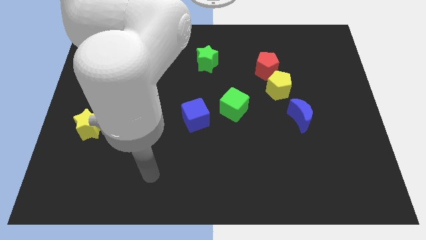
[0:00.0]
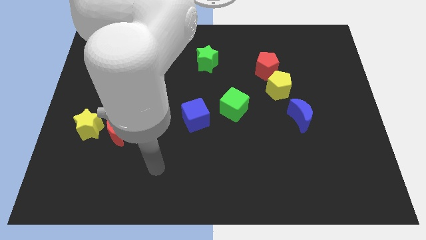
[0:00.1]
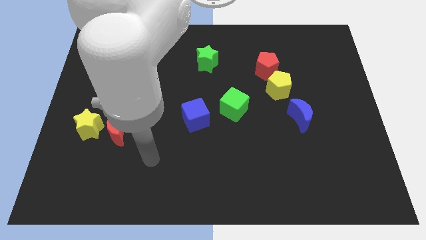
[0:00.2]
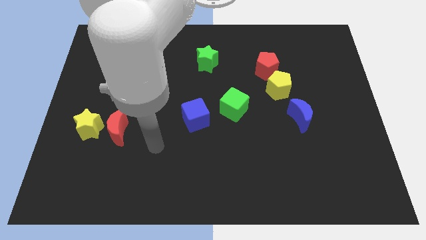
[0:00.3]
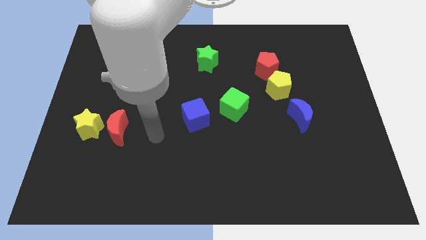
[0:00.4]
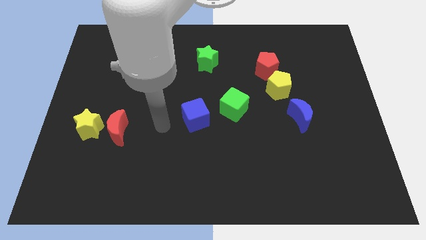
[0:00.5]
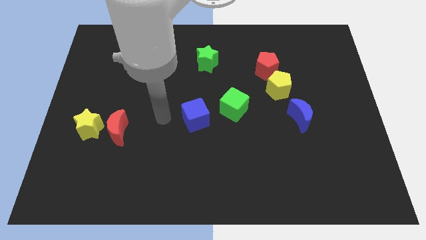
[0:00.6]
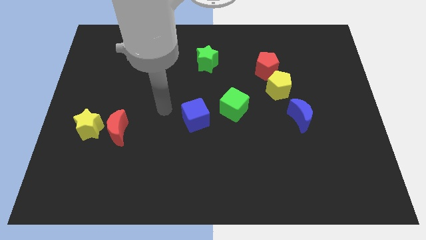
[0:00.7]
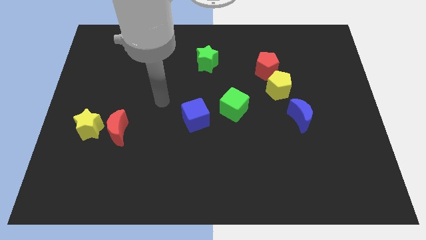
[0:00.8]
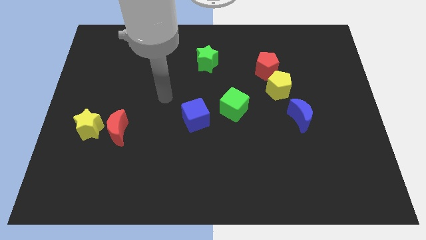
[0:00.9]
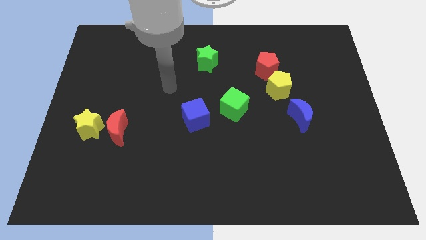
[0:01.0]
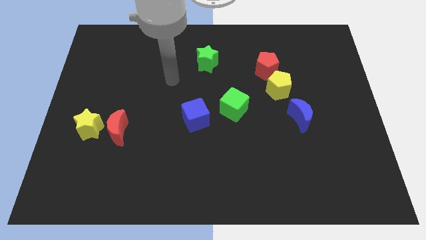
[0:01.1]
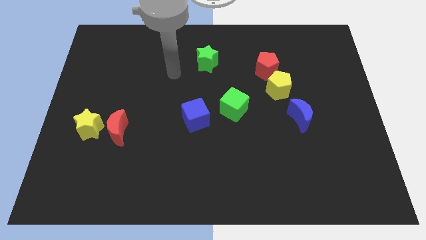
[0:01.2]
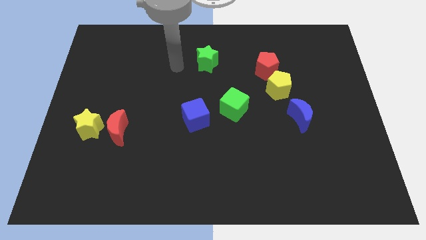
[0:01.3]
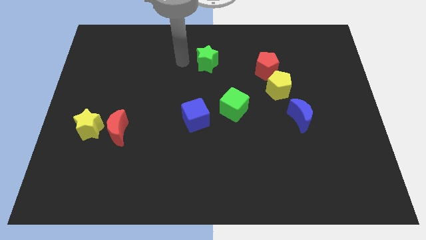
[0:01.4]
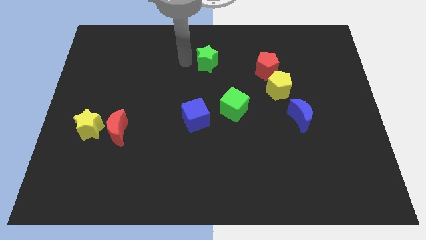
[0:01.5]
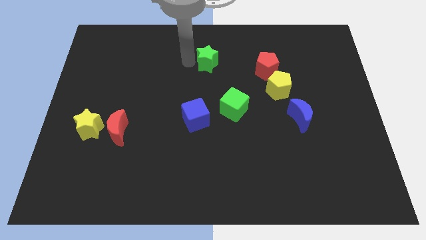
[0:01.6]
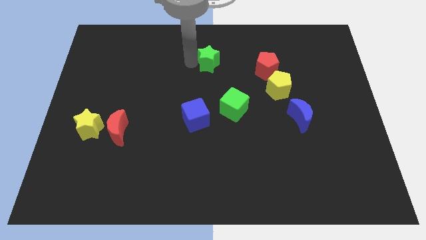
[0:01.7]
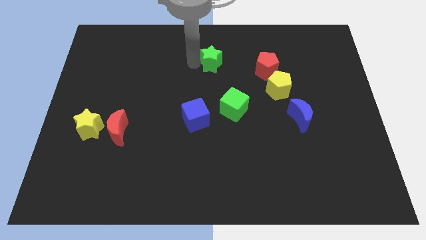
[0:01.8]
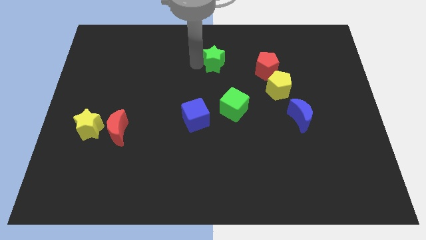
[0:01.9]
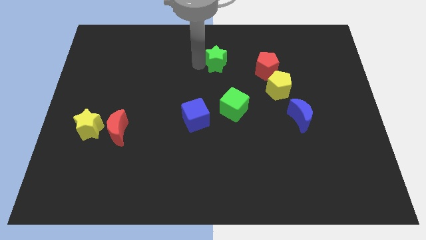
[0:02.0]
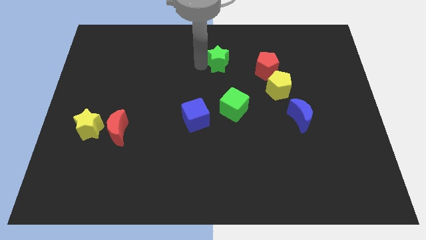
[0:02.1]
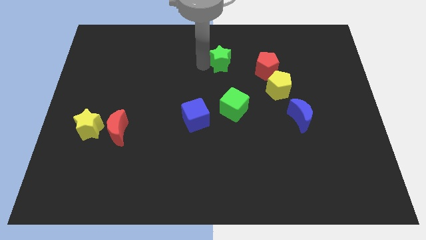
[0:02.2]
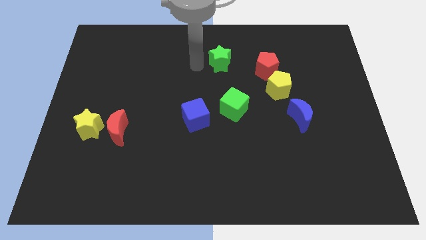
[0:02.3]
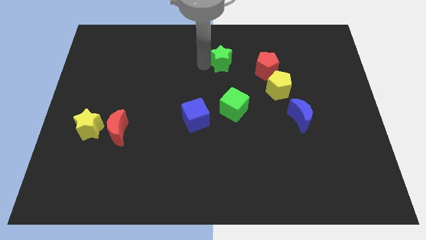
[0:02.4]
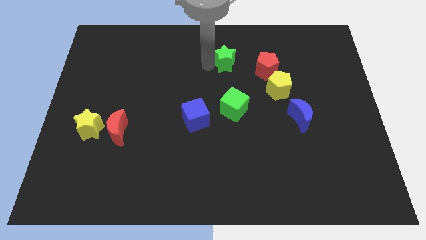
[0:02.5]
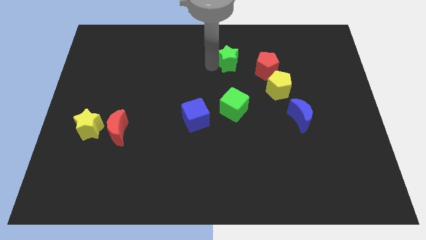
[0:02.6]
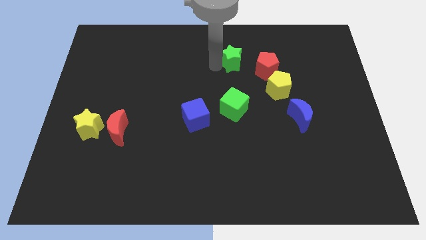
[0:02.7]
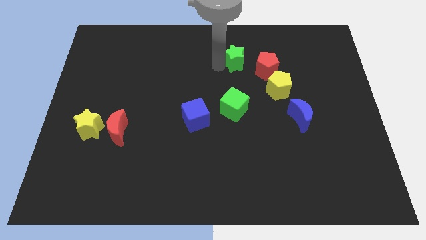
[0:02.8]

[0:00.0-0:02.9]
slightly move the green star right

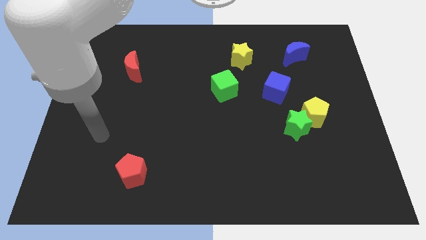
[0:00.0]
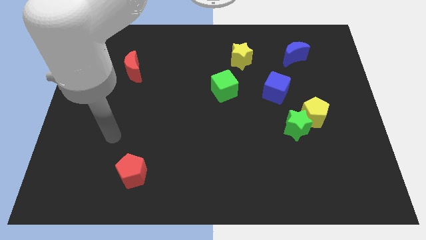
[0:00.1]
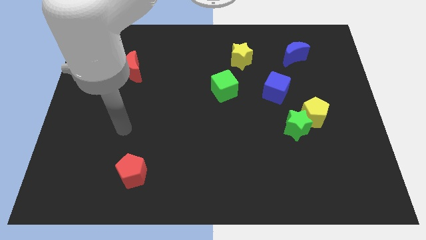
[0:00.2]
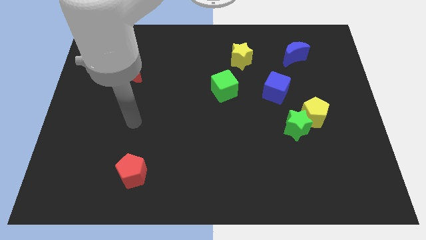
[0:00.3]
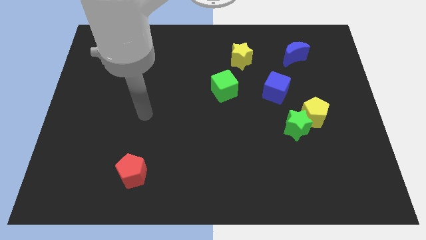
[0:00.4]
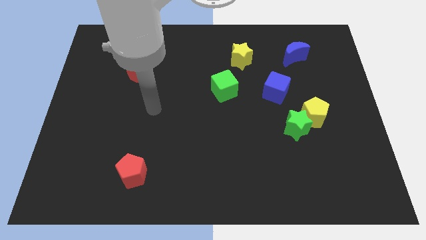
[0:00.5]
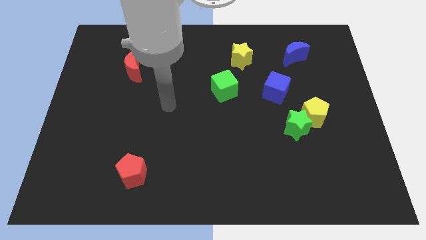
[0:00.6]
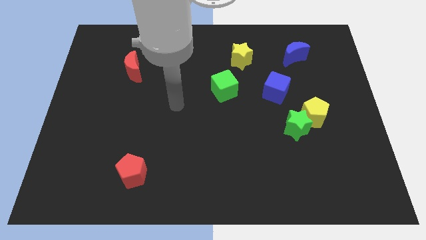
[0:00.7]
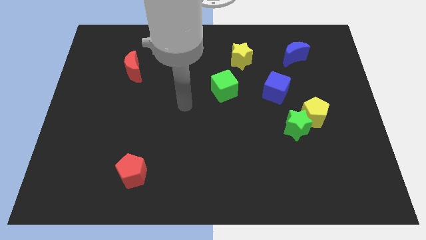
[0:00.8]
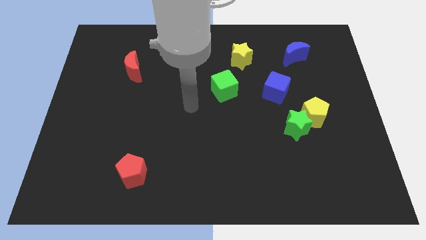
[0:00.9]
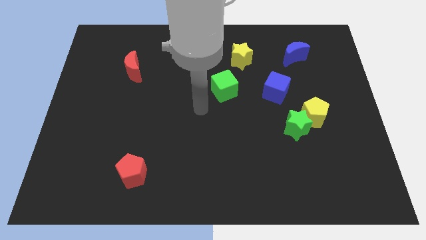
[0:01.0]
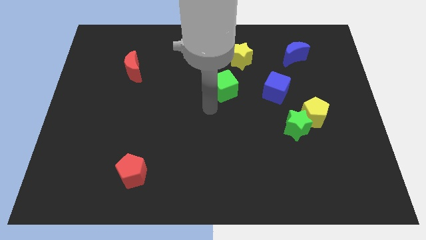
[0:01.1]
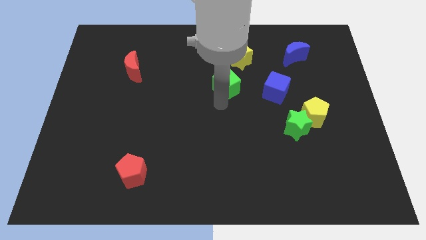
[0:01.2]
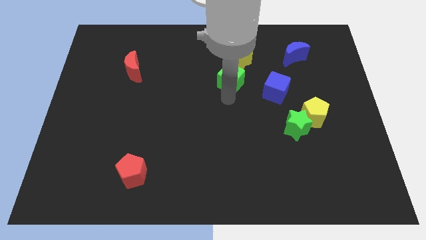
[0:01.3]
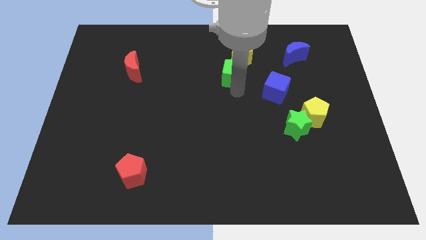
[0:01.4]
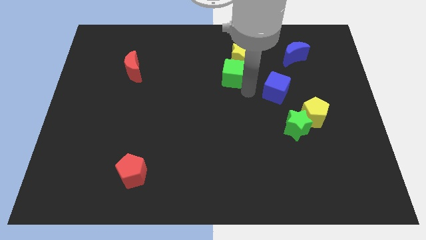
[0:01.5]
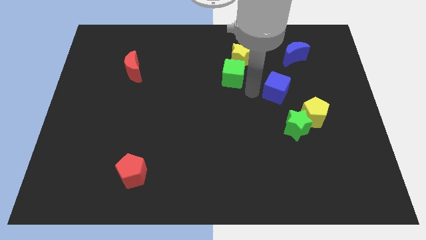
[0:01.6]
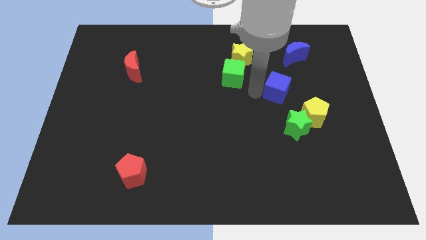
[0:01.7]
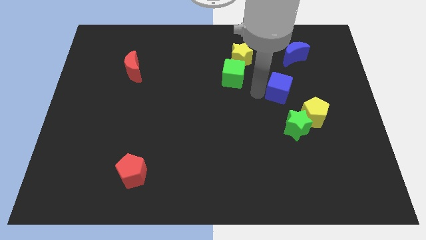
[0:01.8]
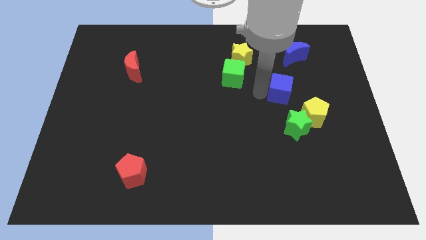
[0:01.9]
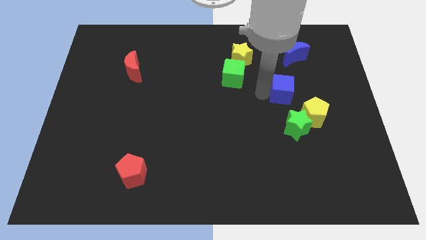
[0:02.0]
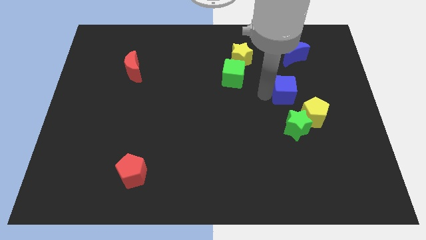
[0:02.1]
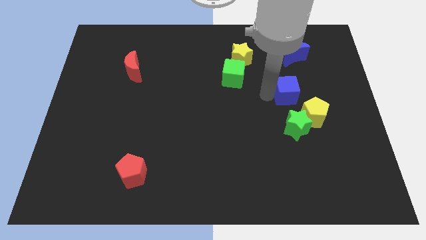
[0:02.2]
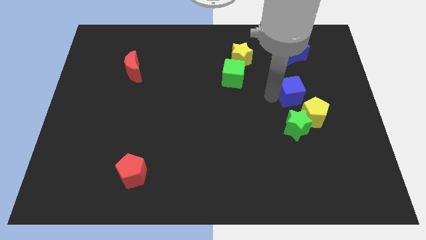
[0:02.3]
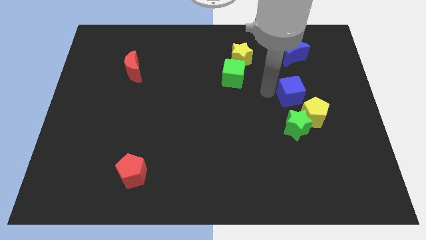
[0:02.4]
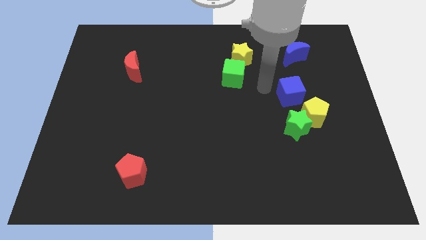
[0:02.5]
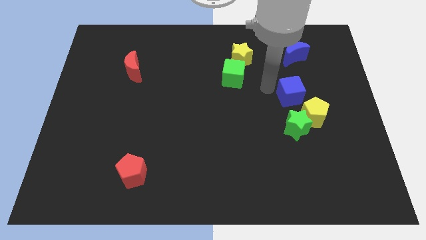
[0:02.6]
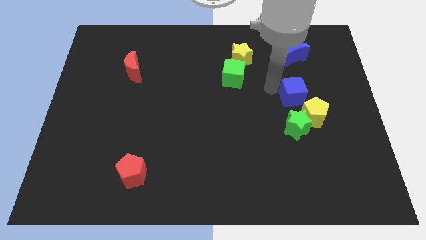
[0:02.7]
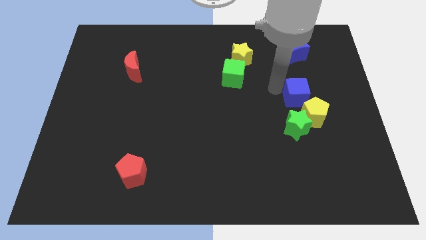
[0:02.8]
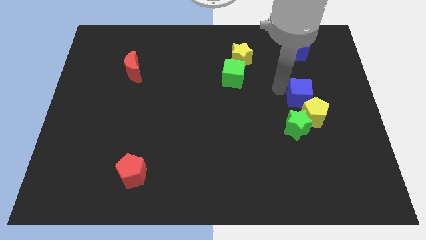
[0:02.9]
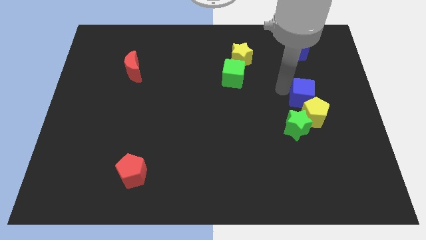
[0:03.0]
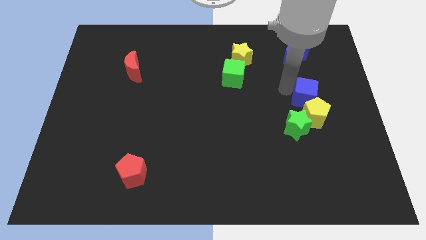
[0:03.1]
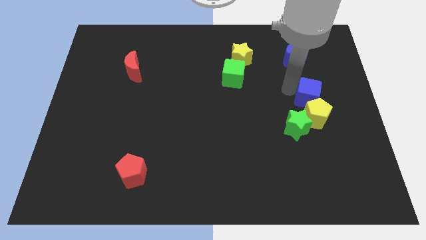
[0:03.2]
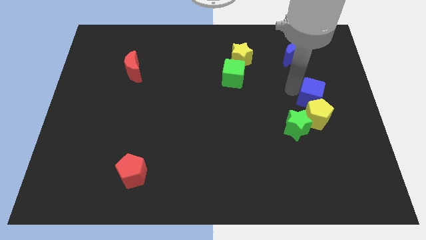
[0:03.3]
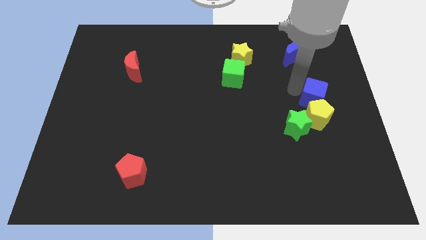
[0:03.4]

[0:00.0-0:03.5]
push the blue cube downwards and to the right slightly

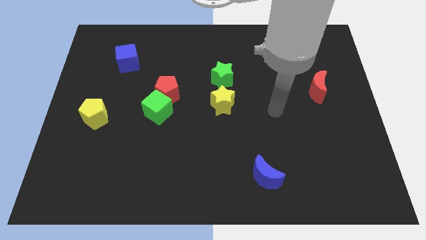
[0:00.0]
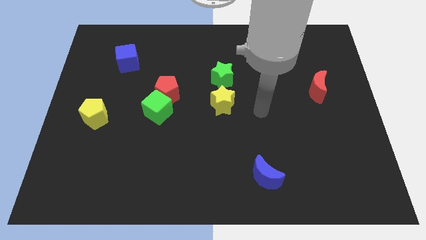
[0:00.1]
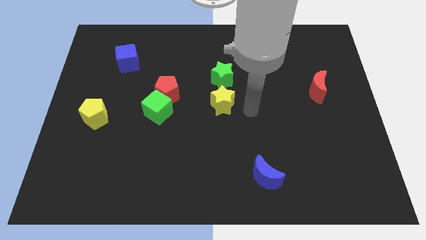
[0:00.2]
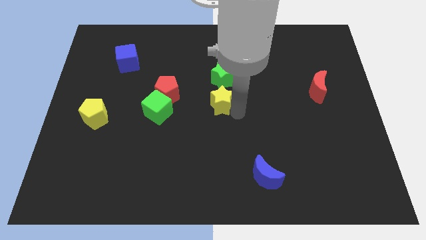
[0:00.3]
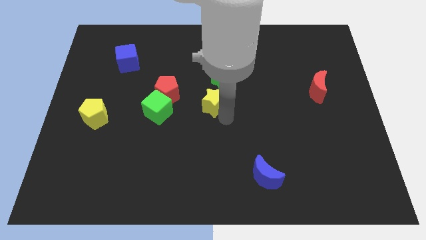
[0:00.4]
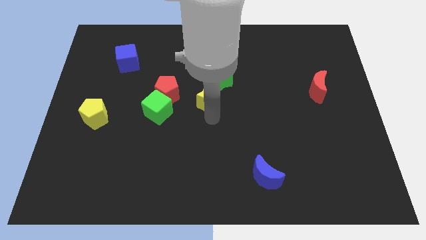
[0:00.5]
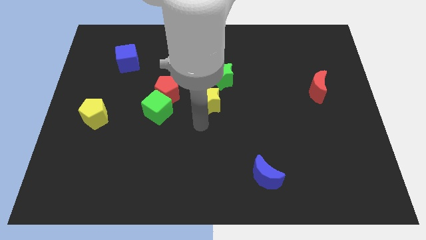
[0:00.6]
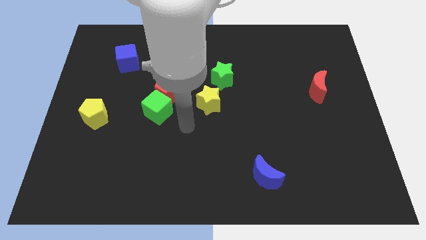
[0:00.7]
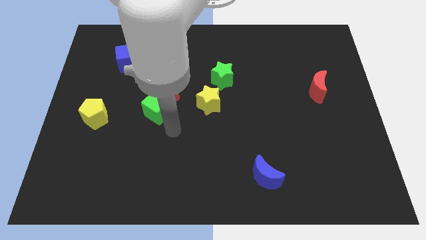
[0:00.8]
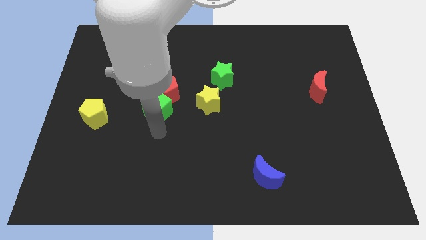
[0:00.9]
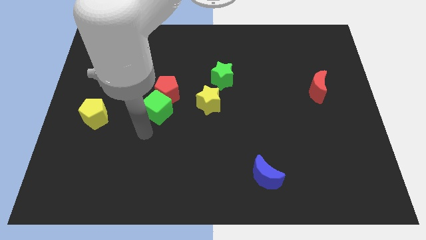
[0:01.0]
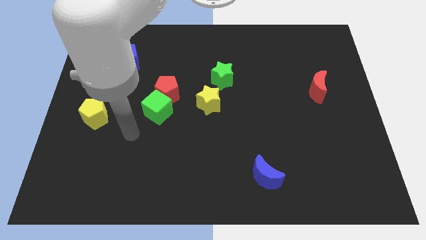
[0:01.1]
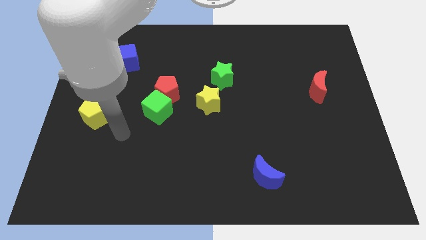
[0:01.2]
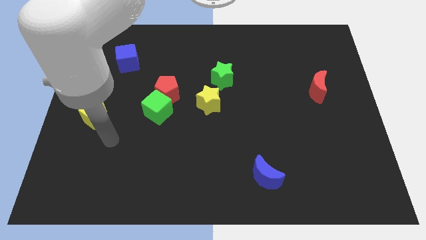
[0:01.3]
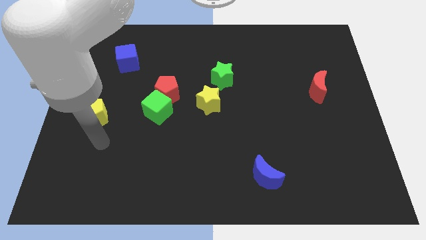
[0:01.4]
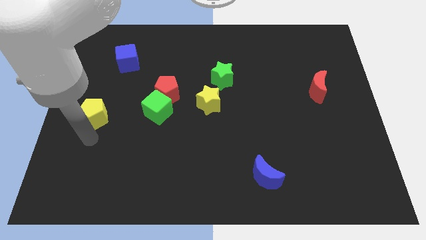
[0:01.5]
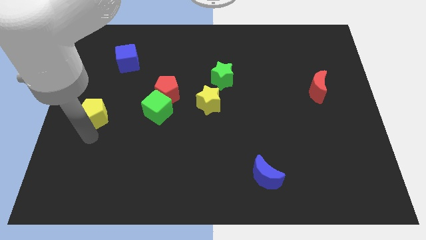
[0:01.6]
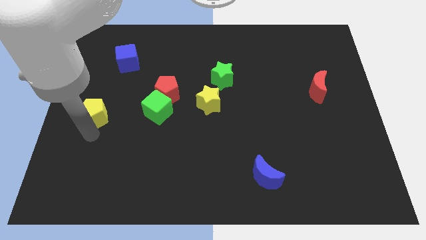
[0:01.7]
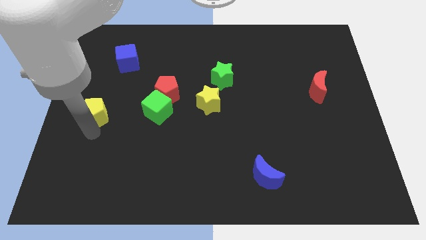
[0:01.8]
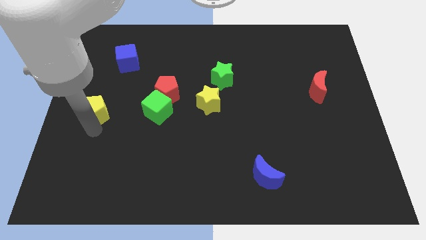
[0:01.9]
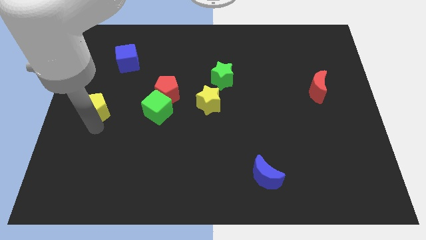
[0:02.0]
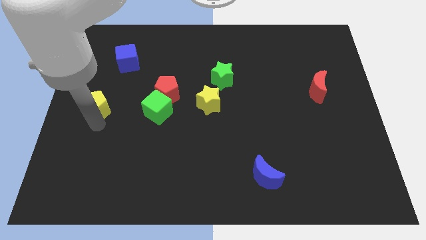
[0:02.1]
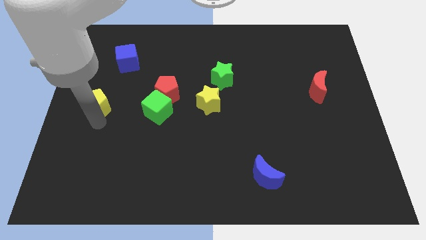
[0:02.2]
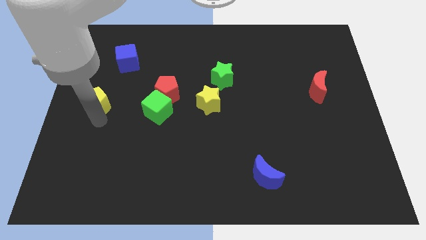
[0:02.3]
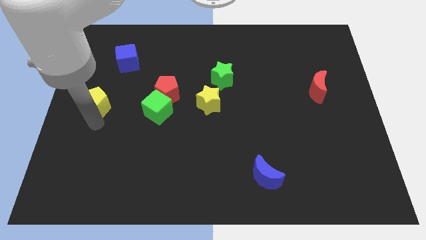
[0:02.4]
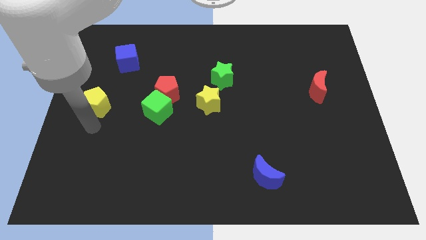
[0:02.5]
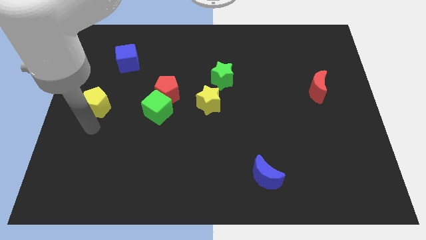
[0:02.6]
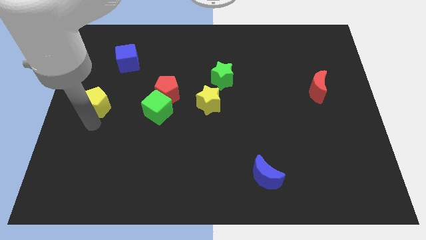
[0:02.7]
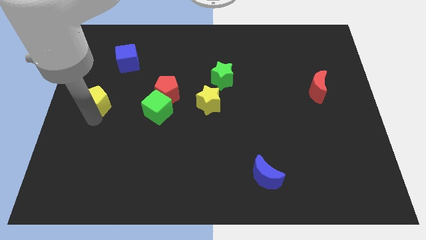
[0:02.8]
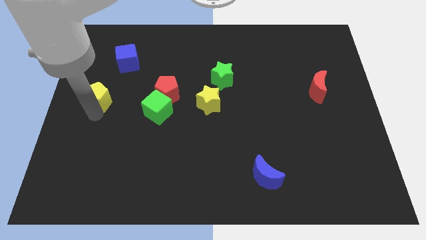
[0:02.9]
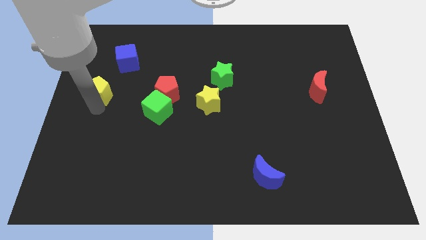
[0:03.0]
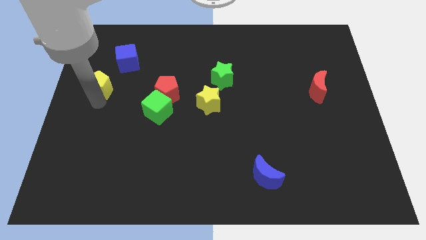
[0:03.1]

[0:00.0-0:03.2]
slightly push the yellow pentagon up
